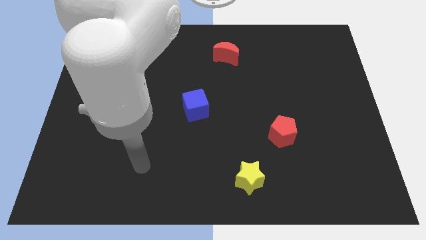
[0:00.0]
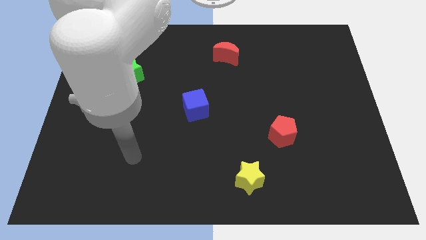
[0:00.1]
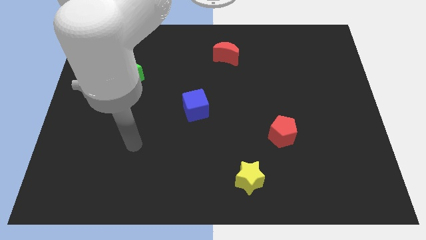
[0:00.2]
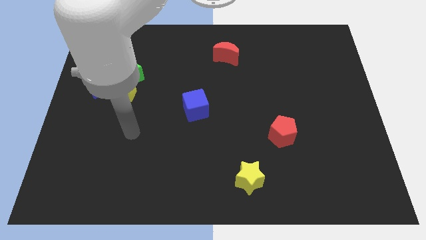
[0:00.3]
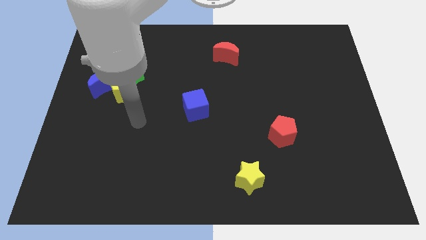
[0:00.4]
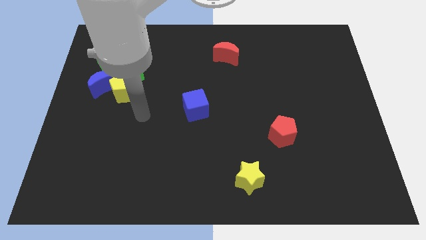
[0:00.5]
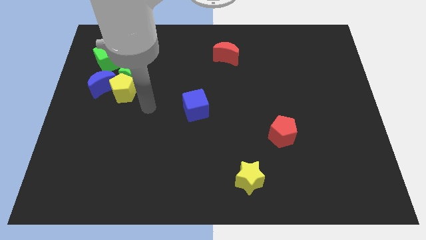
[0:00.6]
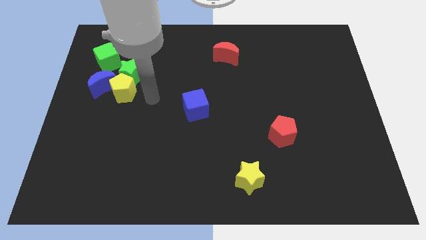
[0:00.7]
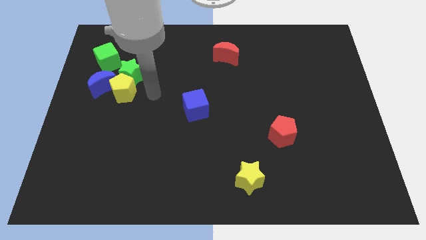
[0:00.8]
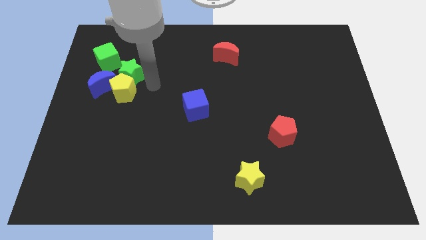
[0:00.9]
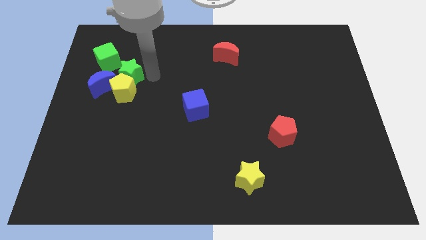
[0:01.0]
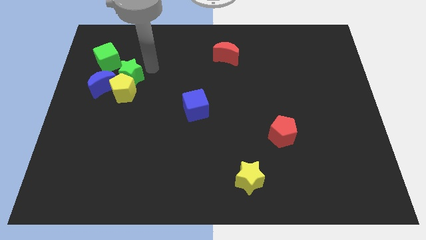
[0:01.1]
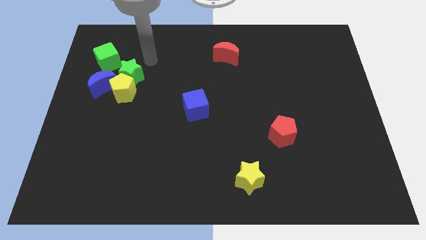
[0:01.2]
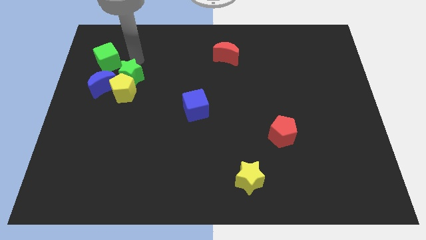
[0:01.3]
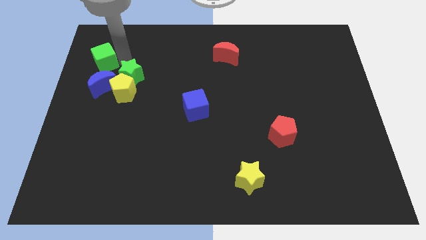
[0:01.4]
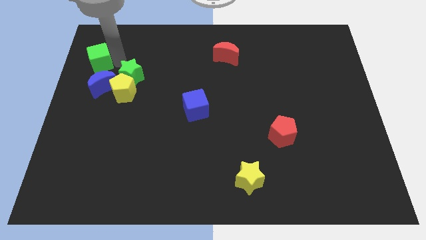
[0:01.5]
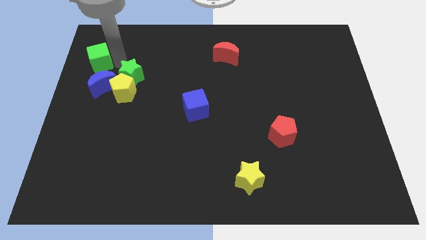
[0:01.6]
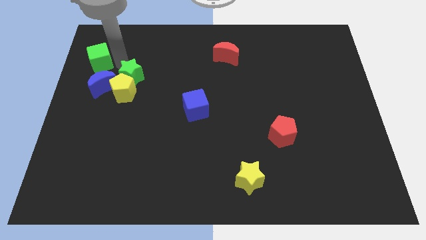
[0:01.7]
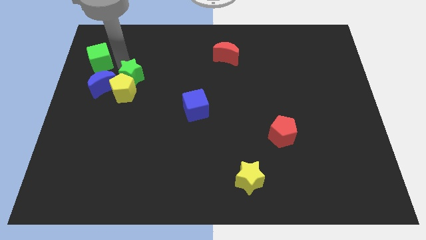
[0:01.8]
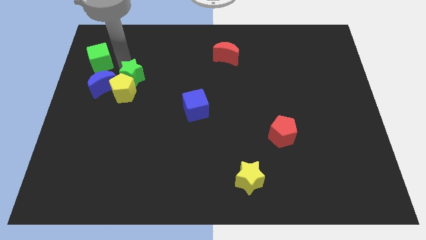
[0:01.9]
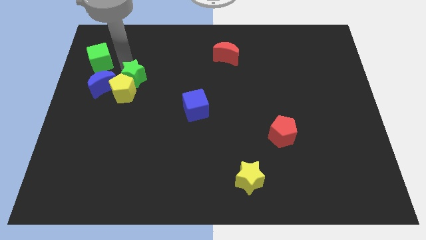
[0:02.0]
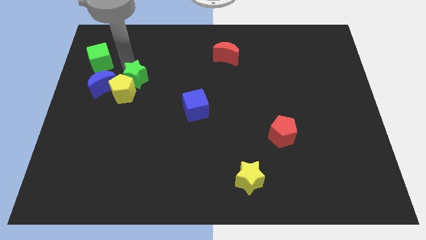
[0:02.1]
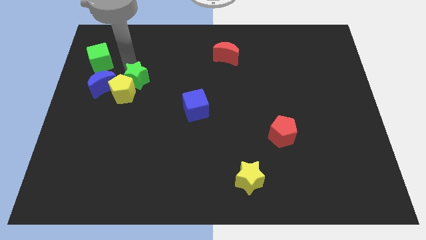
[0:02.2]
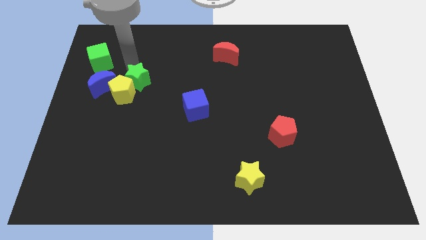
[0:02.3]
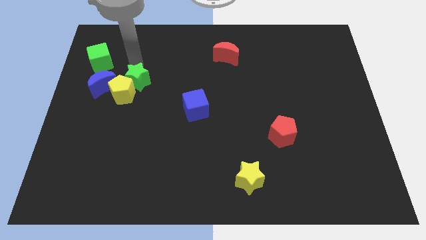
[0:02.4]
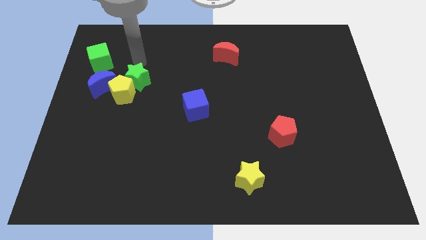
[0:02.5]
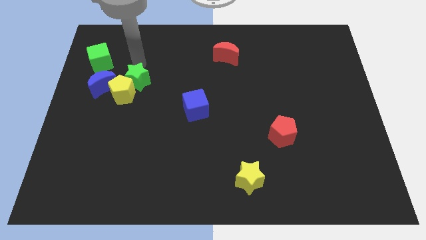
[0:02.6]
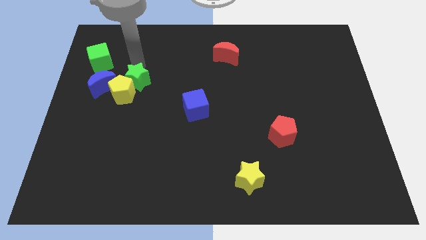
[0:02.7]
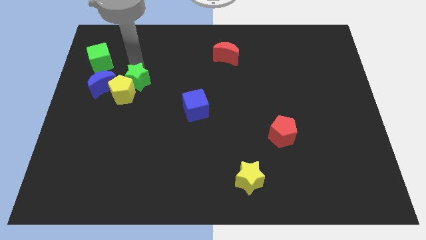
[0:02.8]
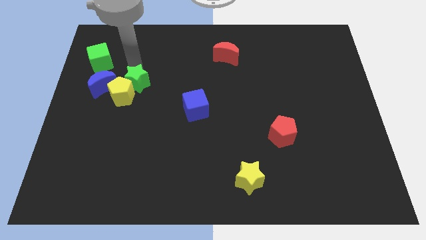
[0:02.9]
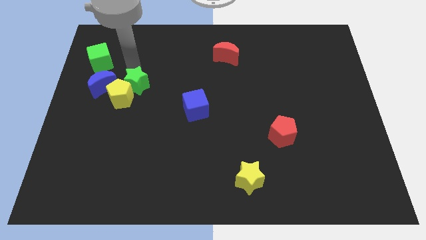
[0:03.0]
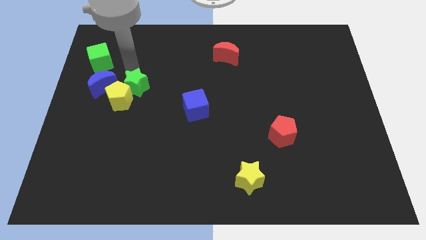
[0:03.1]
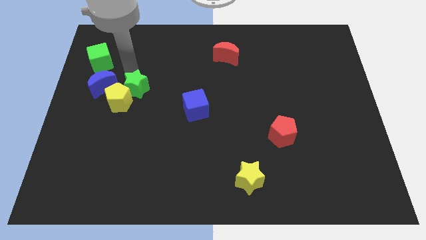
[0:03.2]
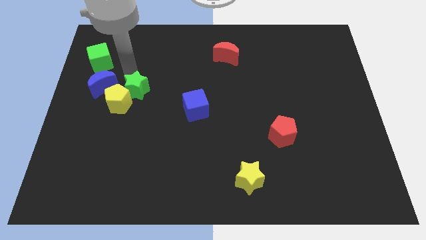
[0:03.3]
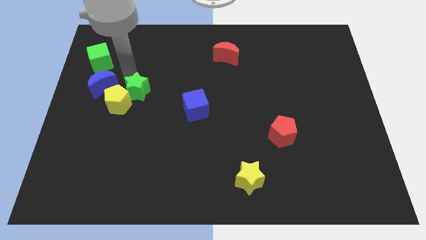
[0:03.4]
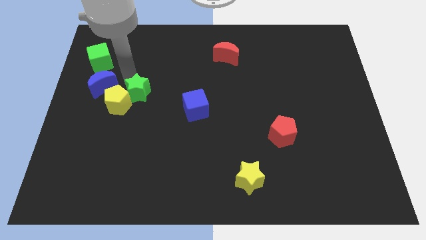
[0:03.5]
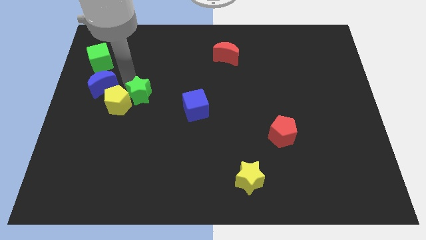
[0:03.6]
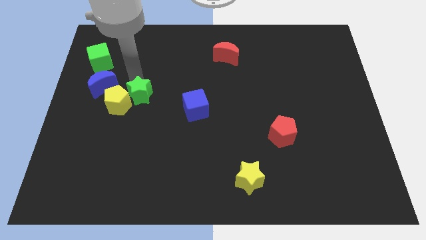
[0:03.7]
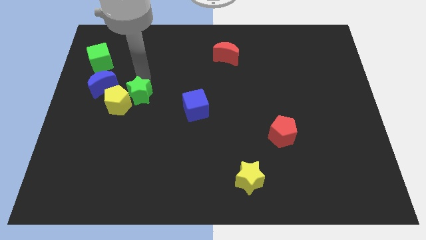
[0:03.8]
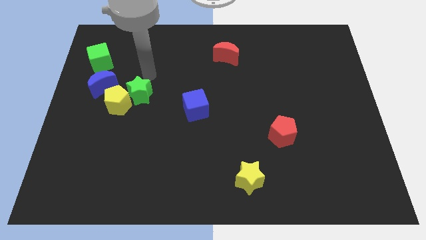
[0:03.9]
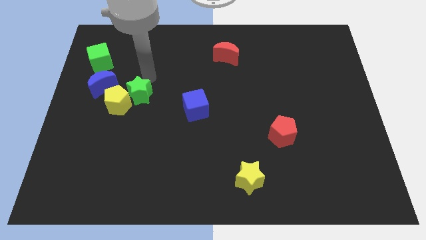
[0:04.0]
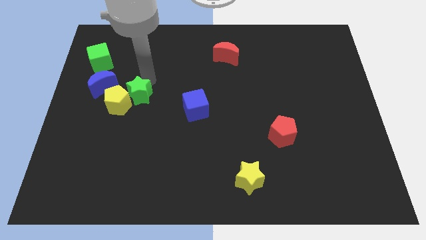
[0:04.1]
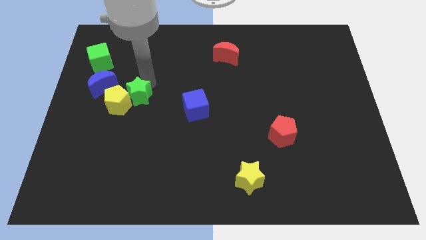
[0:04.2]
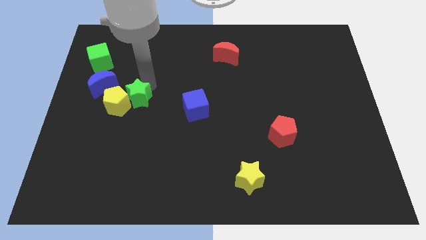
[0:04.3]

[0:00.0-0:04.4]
move the green star downwards slightly

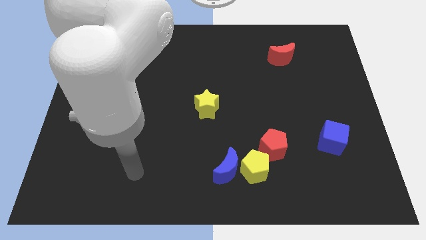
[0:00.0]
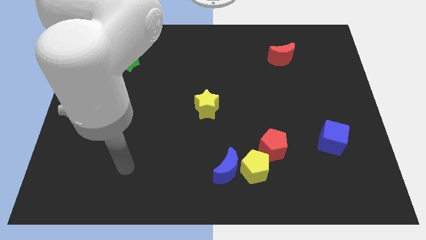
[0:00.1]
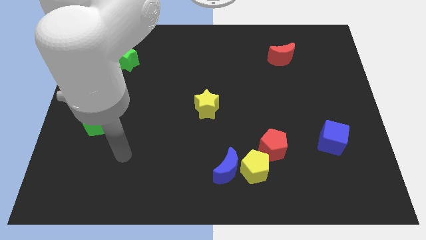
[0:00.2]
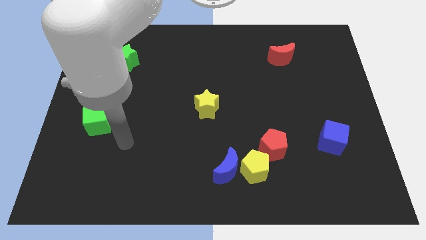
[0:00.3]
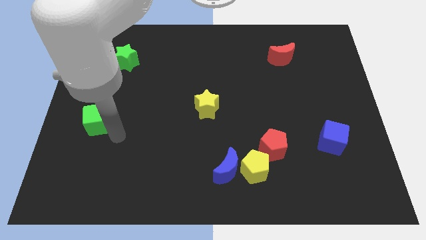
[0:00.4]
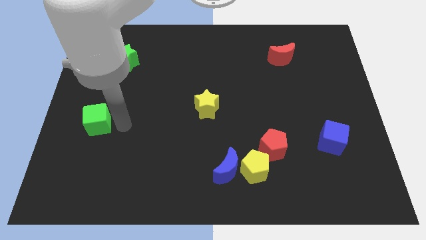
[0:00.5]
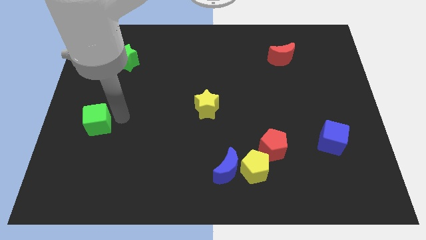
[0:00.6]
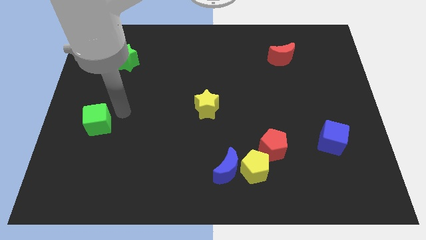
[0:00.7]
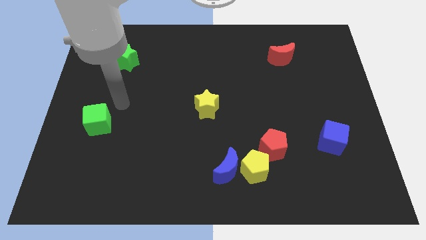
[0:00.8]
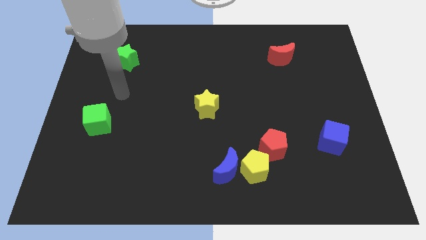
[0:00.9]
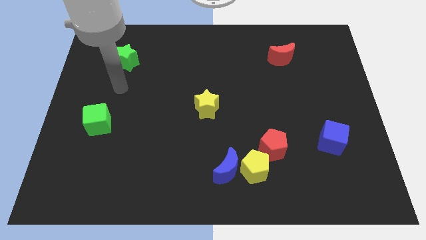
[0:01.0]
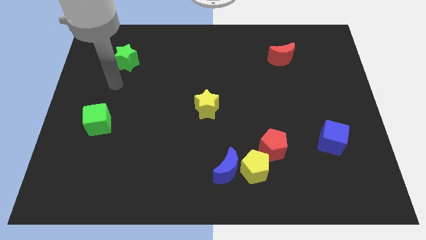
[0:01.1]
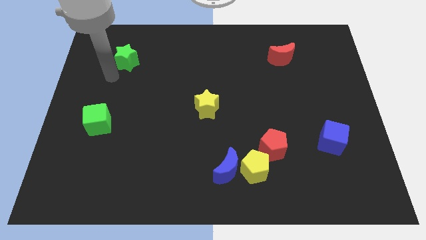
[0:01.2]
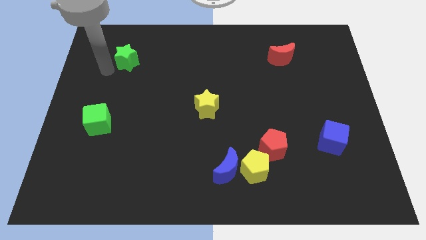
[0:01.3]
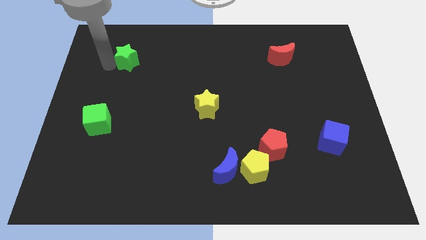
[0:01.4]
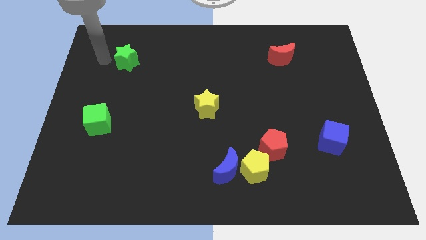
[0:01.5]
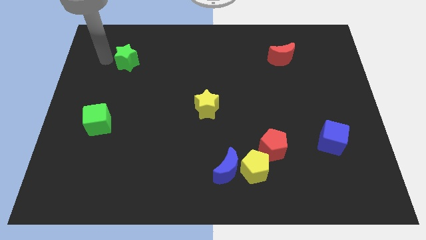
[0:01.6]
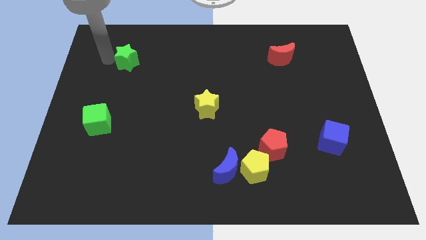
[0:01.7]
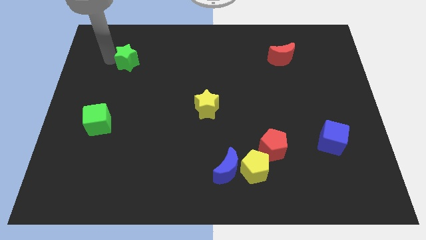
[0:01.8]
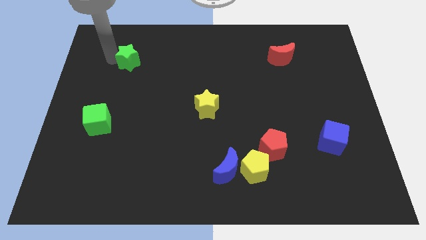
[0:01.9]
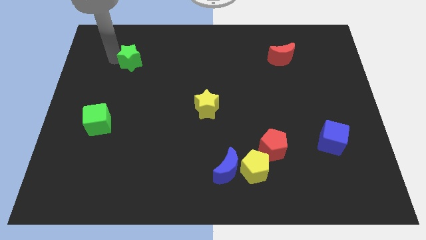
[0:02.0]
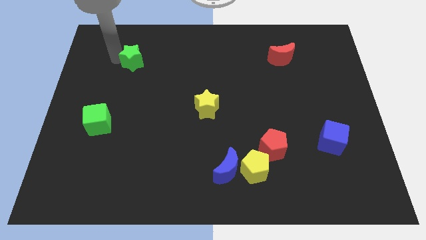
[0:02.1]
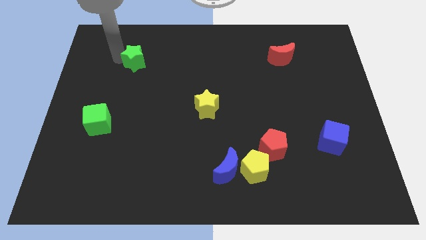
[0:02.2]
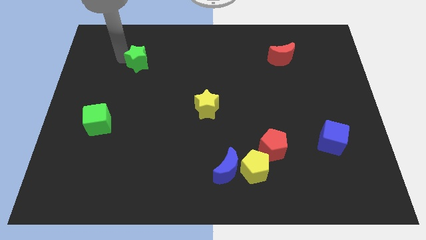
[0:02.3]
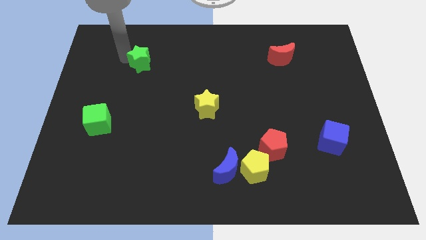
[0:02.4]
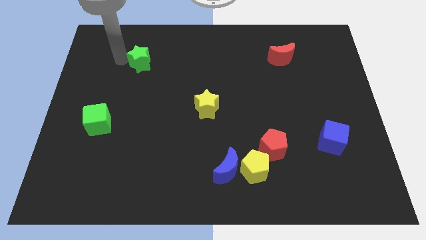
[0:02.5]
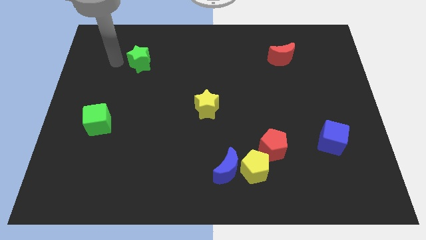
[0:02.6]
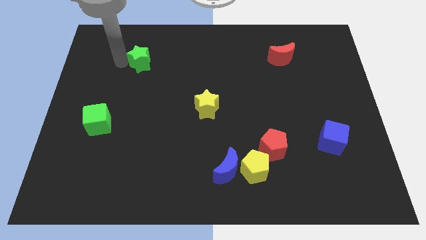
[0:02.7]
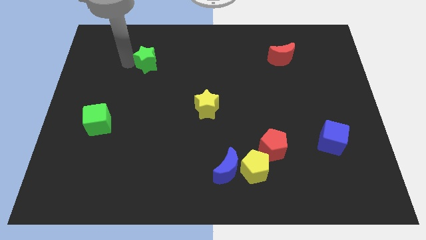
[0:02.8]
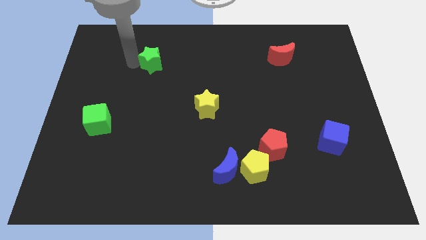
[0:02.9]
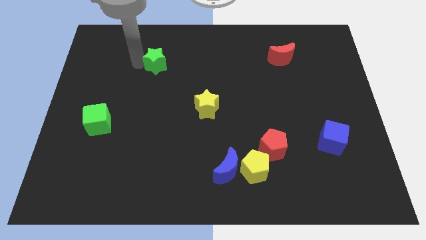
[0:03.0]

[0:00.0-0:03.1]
move the green star to the right a little

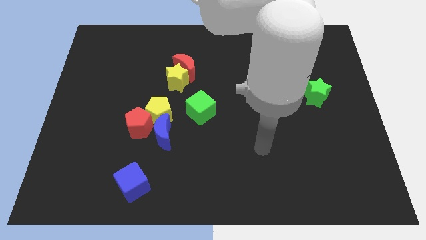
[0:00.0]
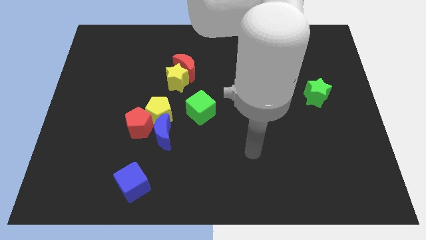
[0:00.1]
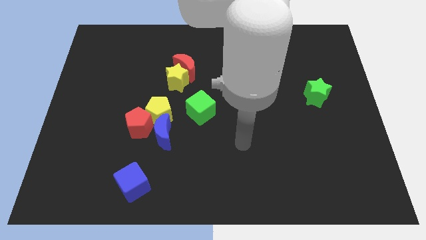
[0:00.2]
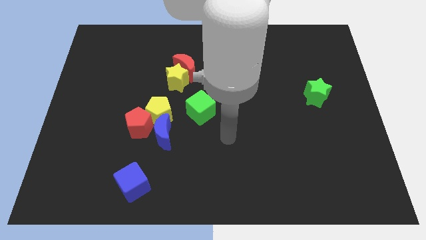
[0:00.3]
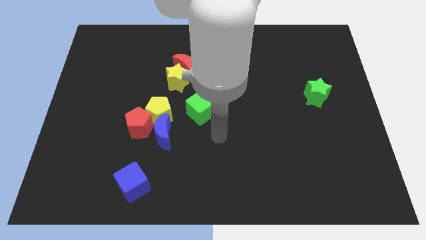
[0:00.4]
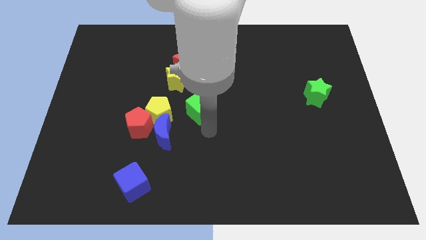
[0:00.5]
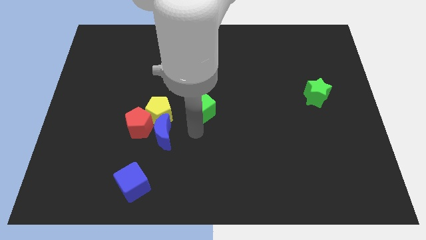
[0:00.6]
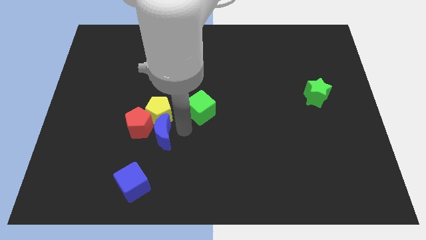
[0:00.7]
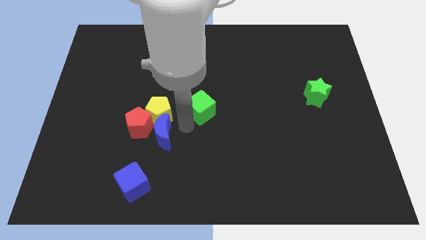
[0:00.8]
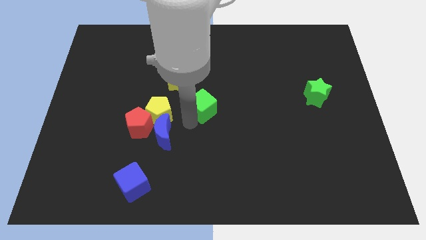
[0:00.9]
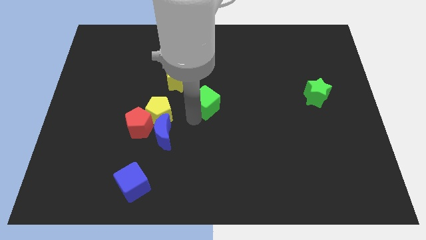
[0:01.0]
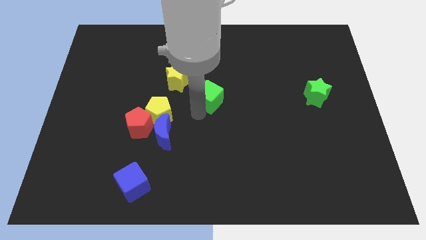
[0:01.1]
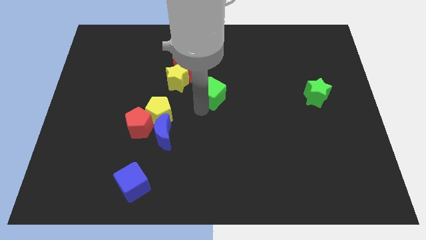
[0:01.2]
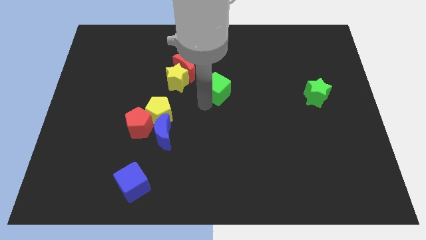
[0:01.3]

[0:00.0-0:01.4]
slide the green cube upwards and right diagonally a bit
